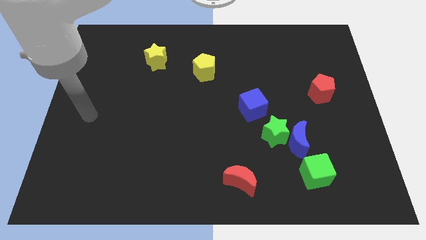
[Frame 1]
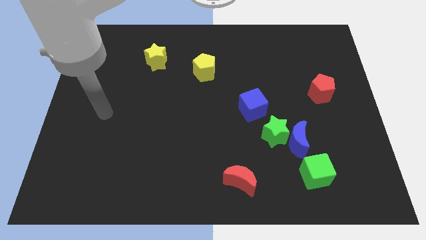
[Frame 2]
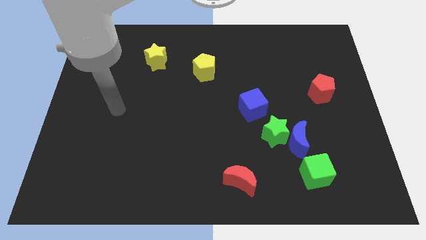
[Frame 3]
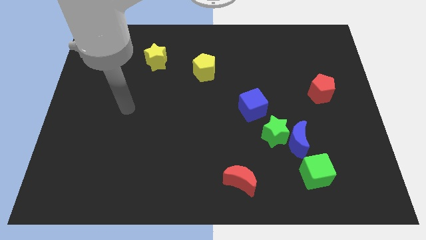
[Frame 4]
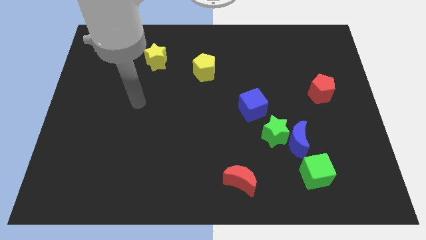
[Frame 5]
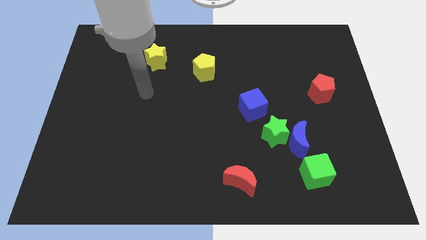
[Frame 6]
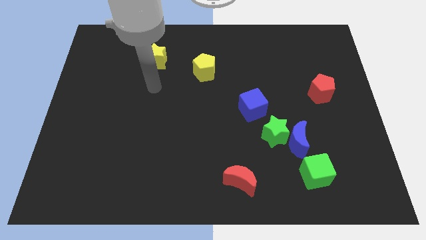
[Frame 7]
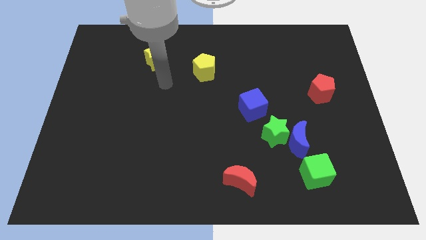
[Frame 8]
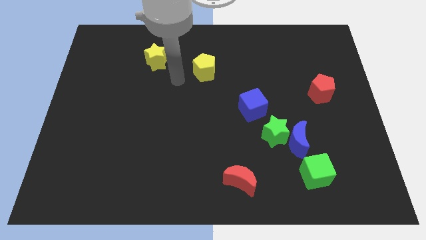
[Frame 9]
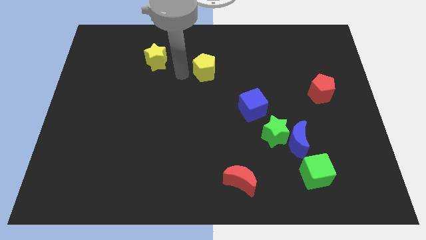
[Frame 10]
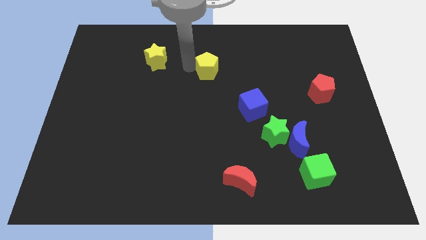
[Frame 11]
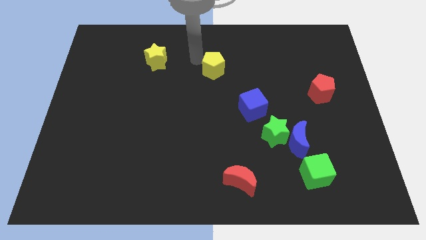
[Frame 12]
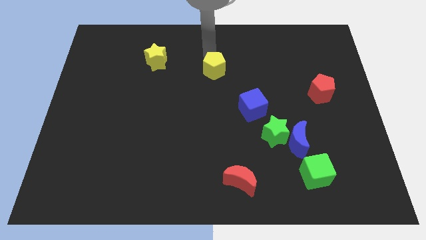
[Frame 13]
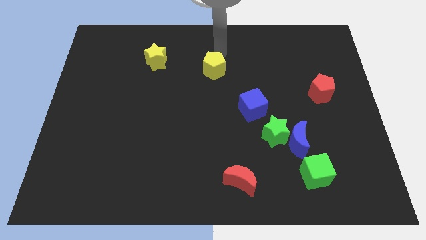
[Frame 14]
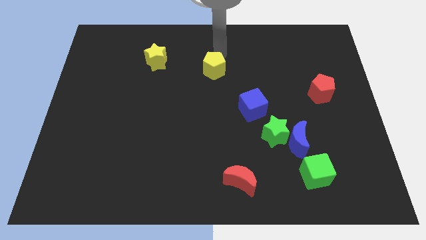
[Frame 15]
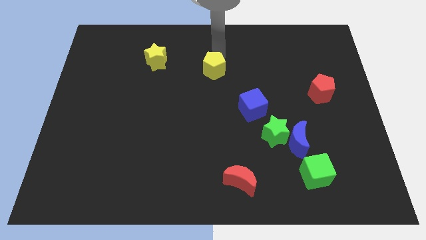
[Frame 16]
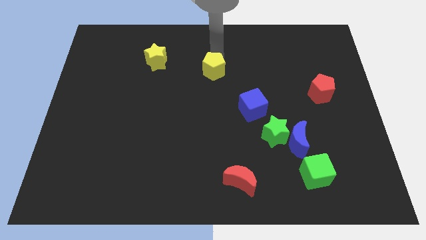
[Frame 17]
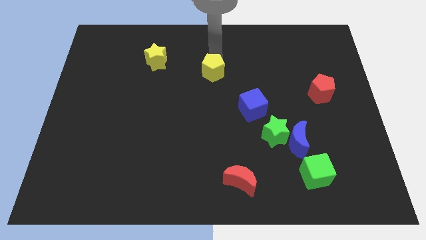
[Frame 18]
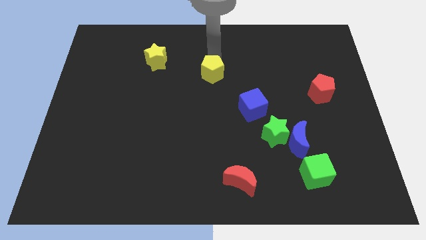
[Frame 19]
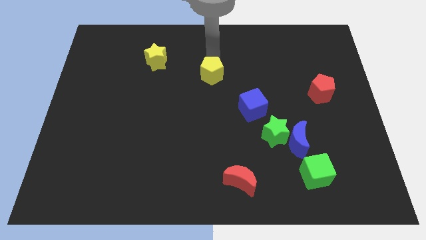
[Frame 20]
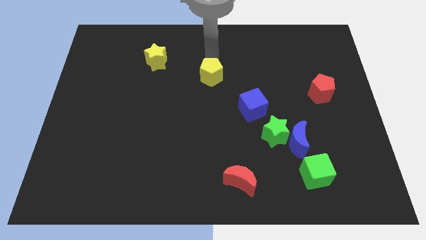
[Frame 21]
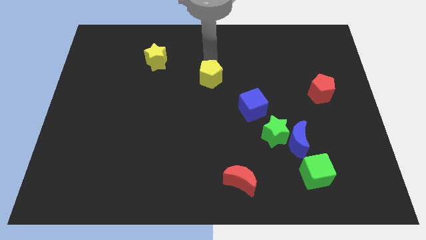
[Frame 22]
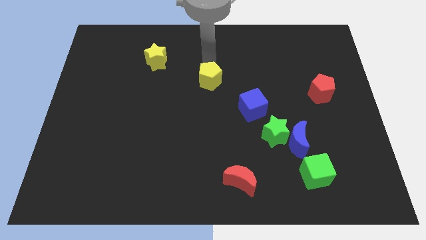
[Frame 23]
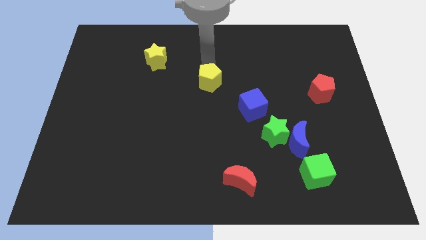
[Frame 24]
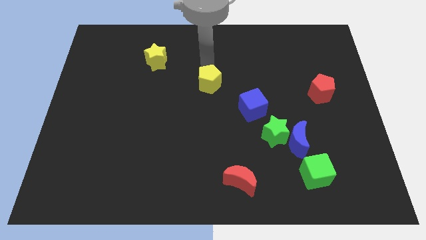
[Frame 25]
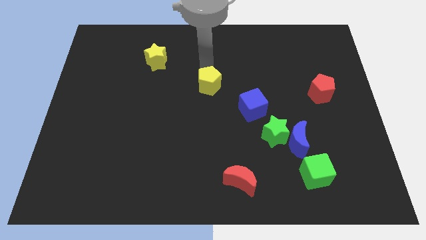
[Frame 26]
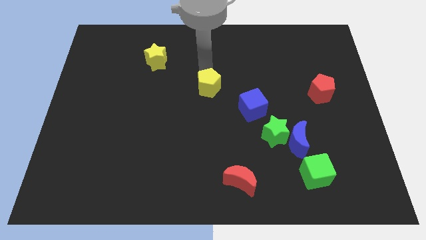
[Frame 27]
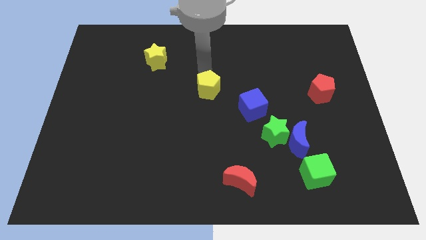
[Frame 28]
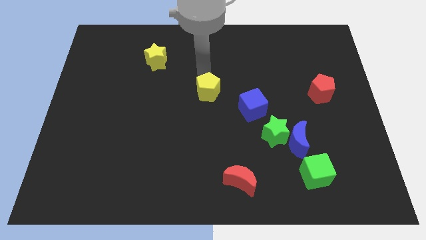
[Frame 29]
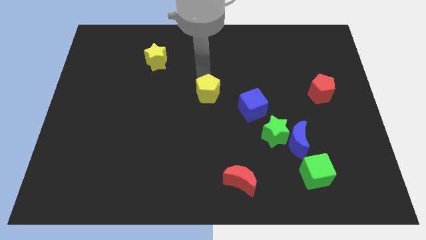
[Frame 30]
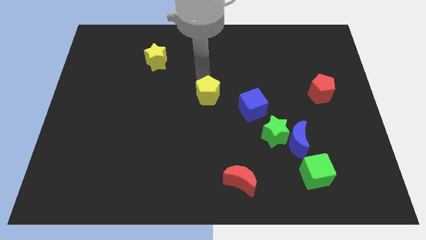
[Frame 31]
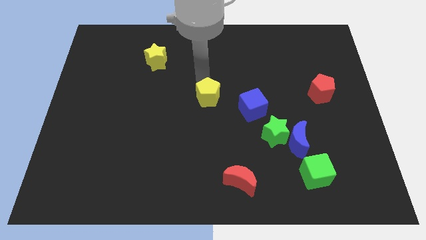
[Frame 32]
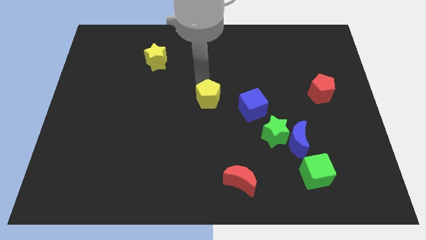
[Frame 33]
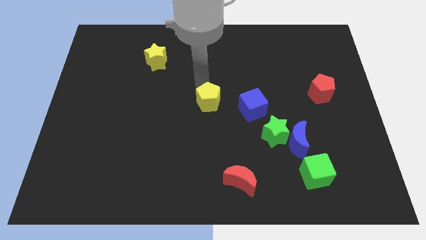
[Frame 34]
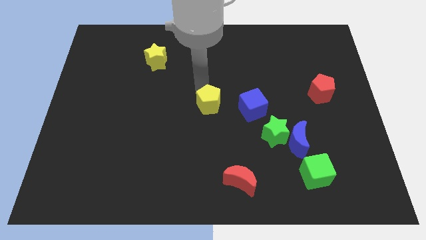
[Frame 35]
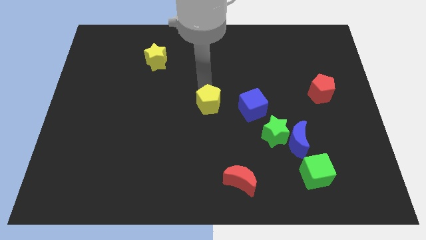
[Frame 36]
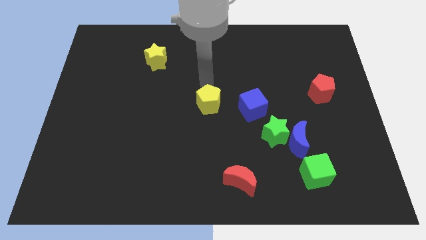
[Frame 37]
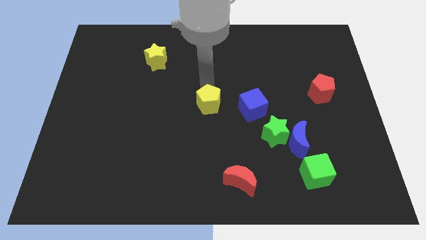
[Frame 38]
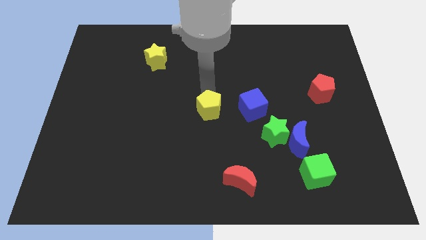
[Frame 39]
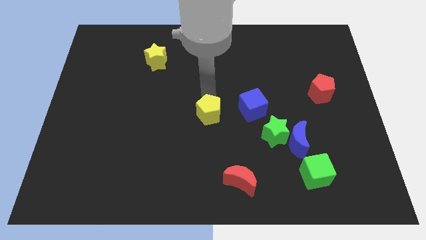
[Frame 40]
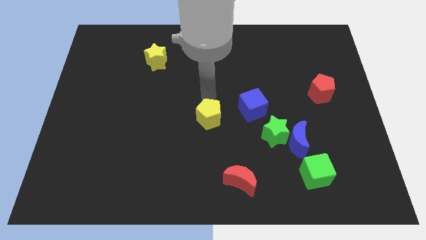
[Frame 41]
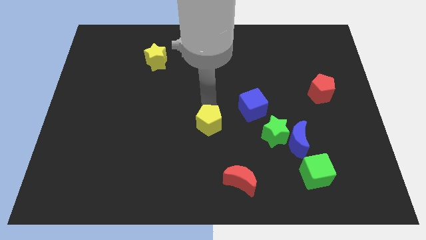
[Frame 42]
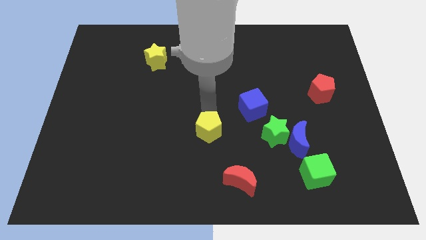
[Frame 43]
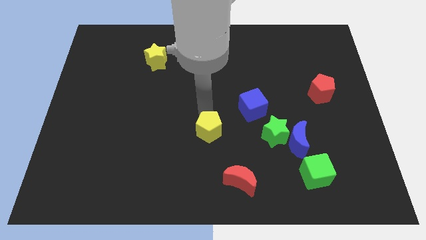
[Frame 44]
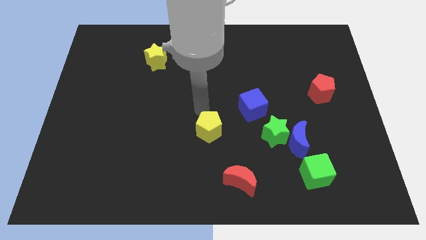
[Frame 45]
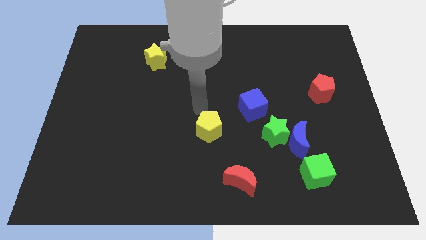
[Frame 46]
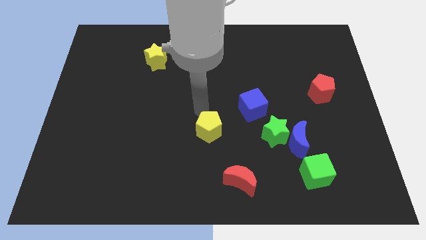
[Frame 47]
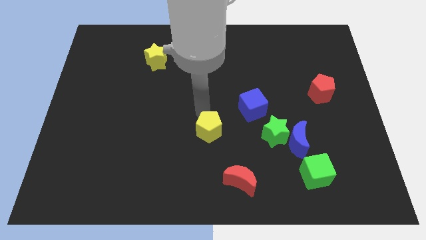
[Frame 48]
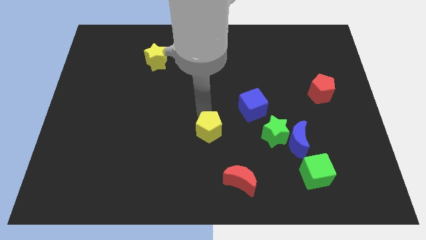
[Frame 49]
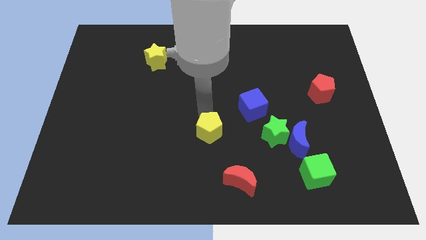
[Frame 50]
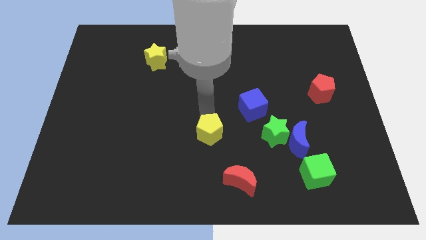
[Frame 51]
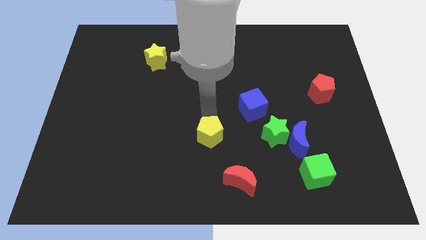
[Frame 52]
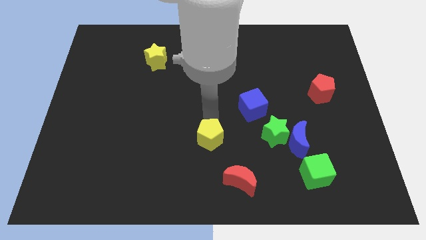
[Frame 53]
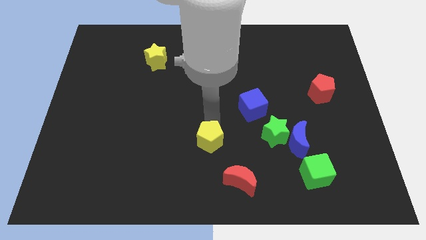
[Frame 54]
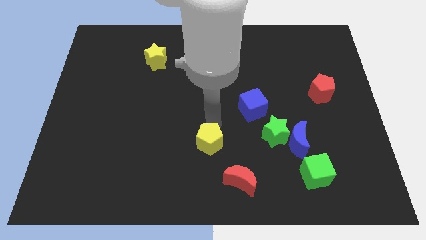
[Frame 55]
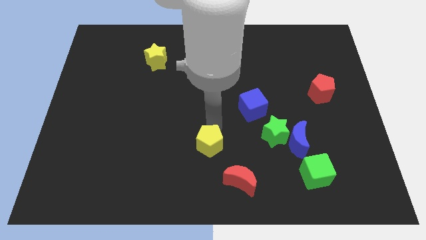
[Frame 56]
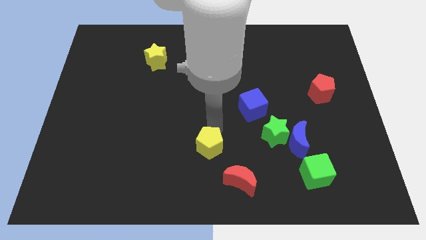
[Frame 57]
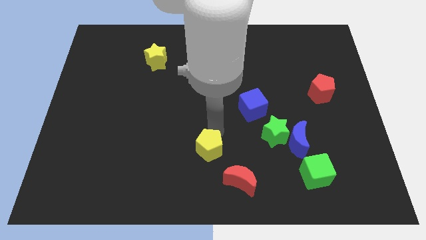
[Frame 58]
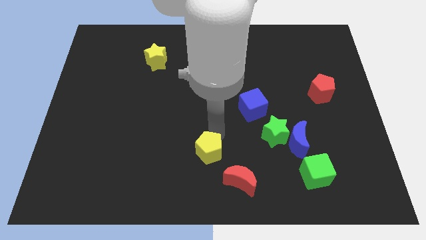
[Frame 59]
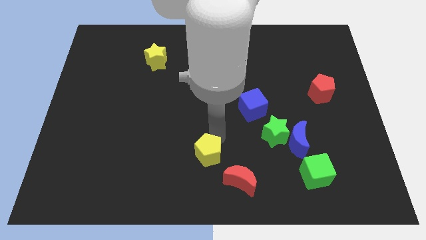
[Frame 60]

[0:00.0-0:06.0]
put the yellow pentagon to the bottom side
